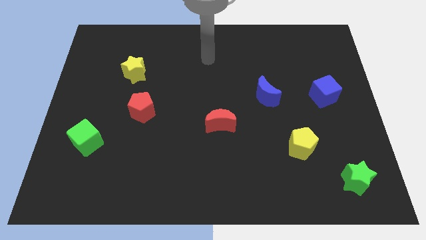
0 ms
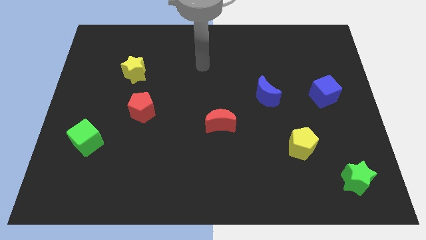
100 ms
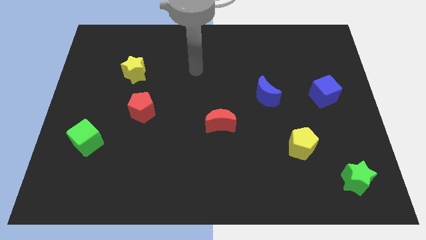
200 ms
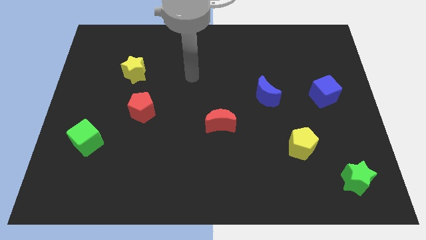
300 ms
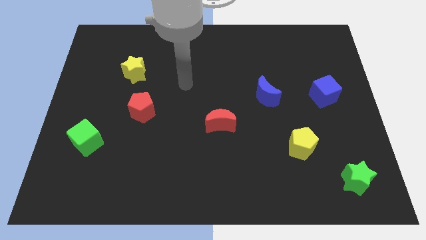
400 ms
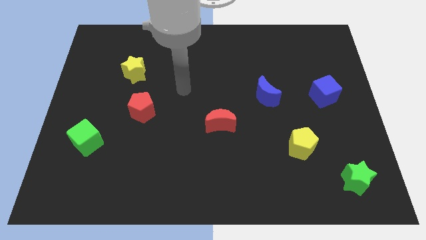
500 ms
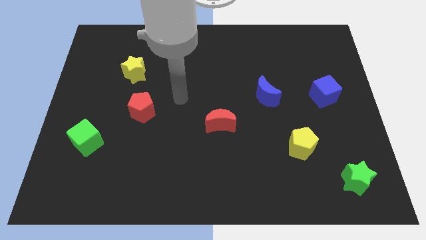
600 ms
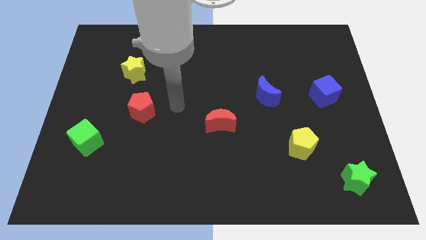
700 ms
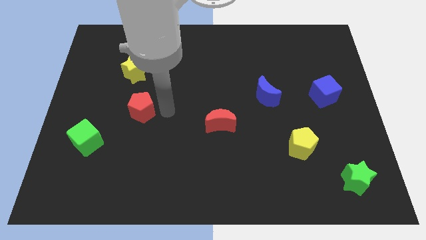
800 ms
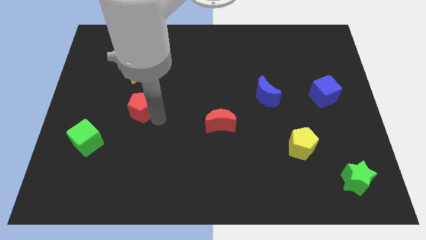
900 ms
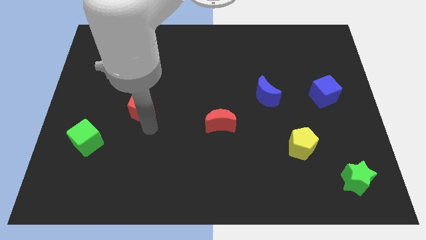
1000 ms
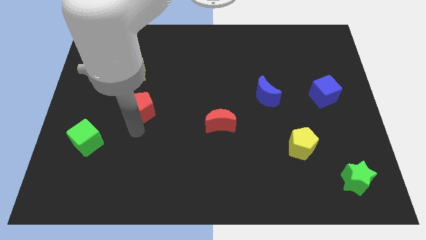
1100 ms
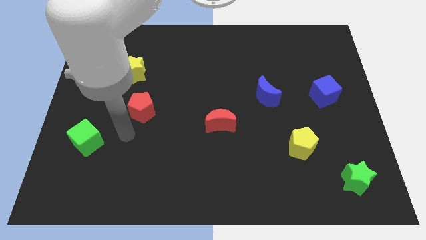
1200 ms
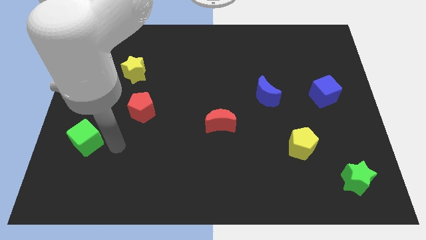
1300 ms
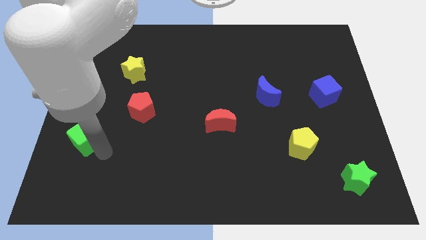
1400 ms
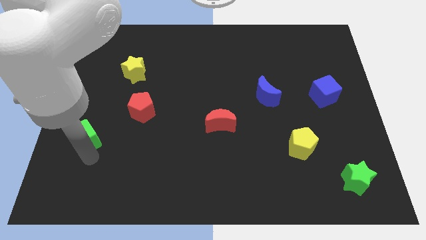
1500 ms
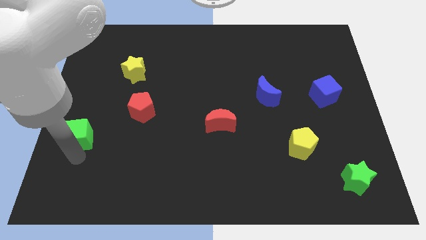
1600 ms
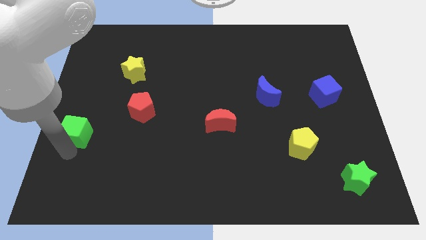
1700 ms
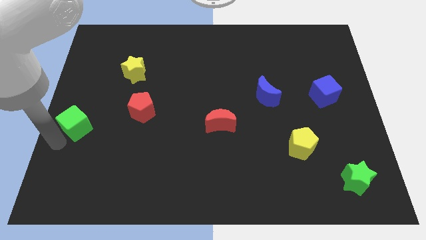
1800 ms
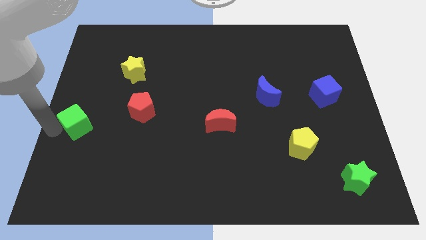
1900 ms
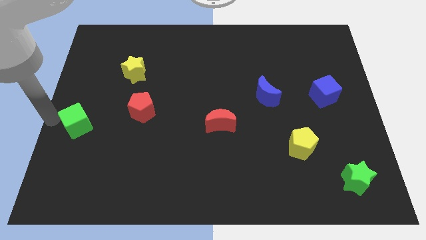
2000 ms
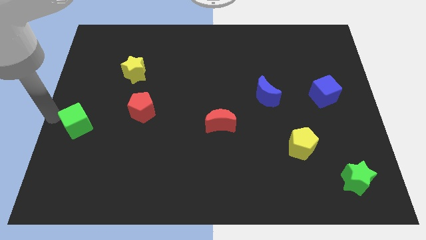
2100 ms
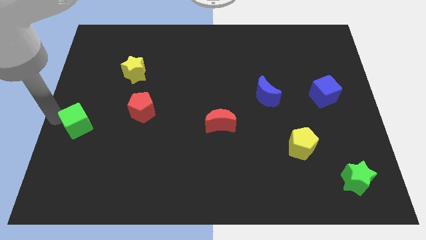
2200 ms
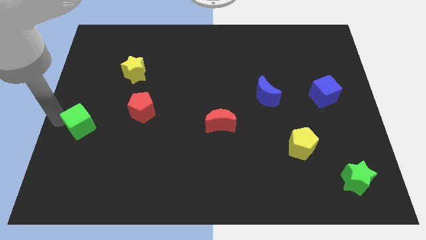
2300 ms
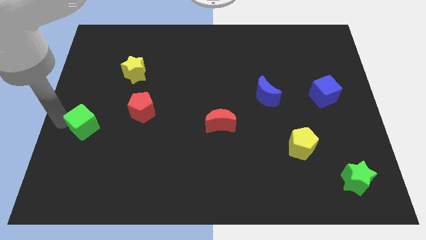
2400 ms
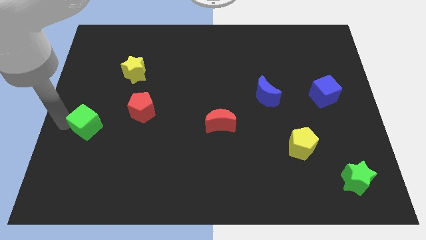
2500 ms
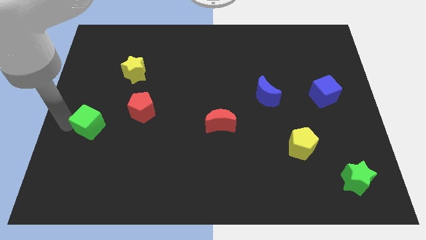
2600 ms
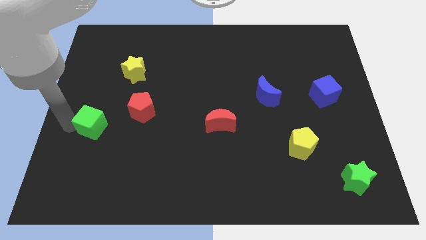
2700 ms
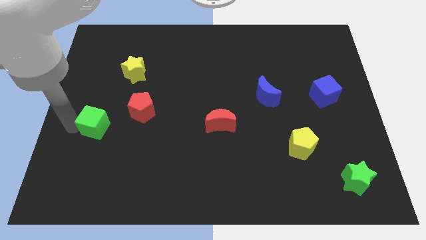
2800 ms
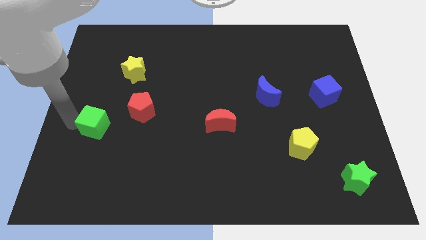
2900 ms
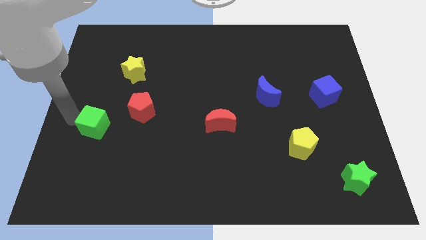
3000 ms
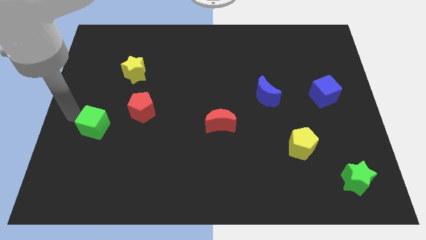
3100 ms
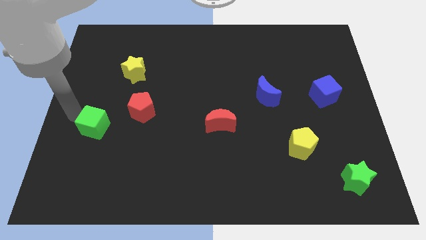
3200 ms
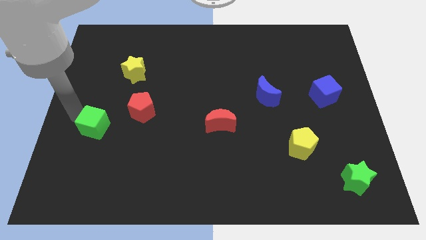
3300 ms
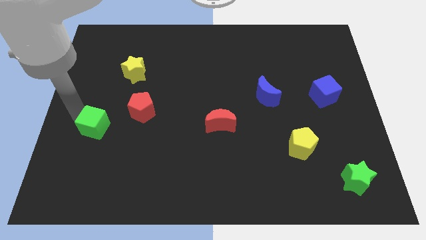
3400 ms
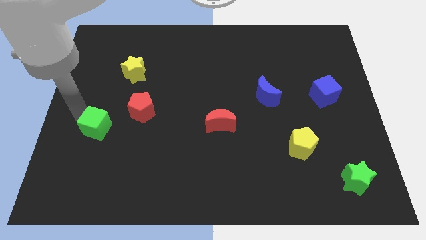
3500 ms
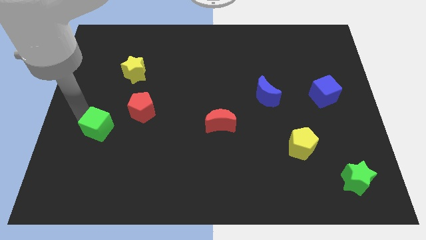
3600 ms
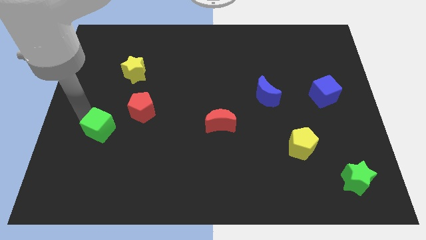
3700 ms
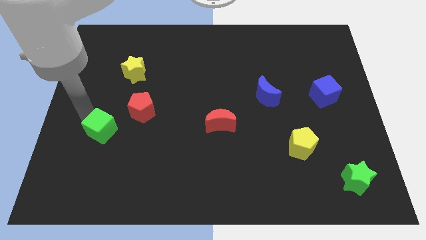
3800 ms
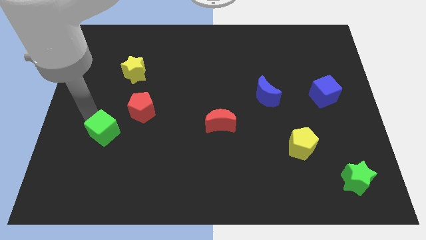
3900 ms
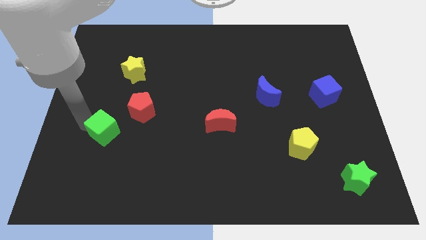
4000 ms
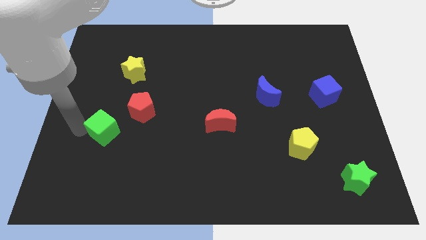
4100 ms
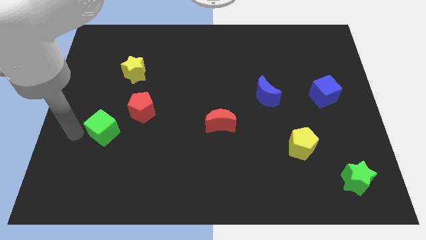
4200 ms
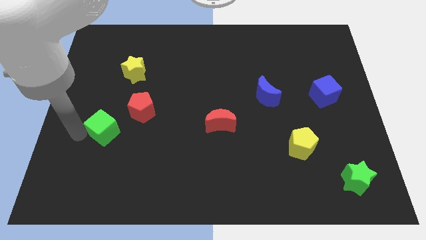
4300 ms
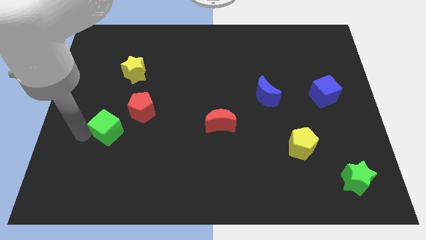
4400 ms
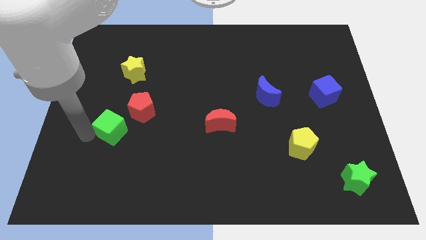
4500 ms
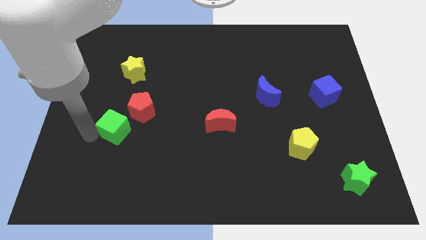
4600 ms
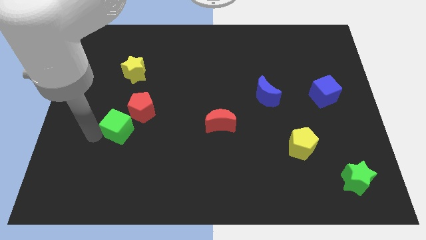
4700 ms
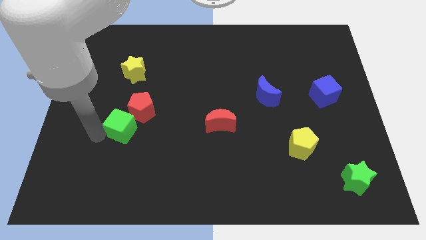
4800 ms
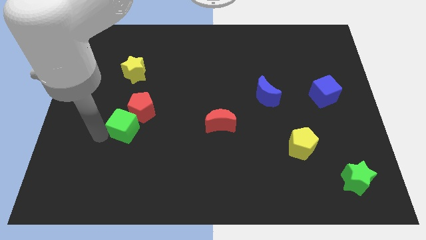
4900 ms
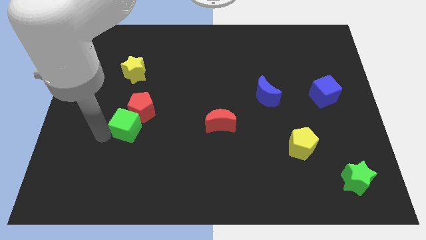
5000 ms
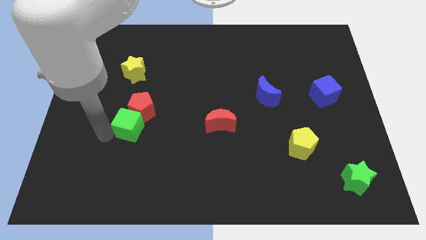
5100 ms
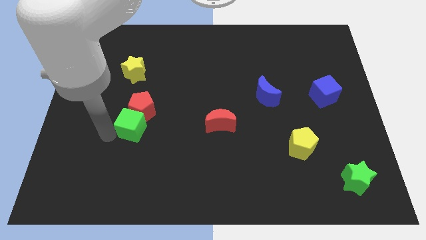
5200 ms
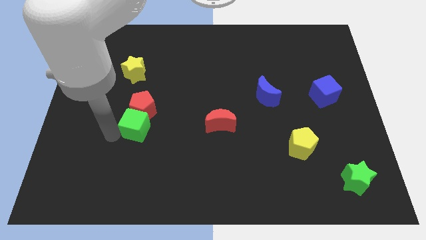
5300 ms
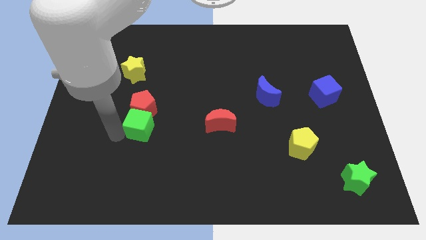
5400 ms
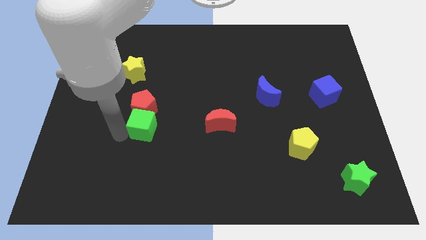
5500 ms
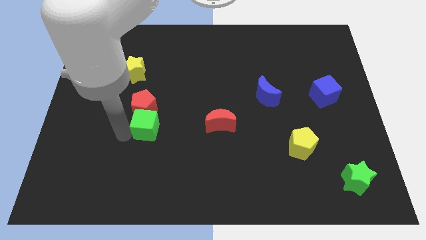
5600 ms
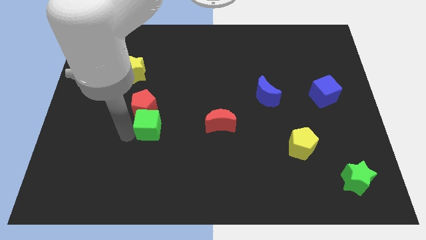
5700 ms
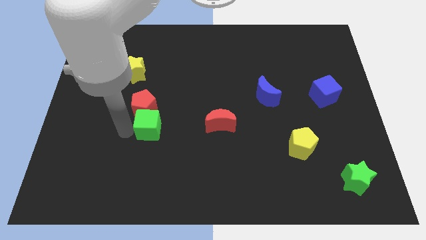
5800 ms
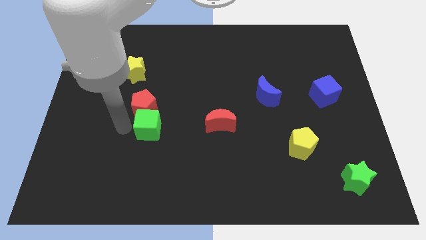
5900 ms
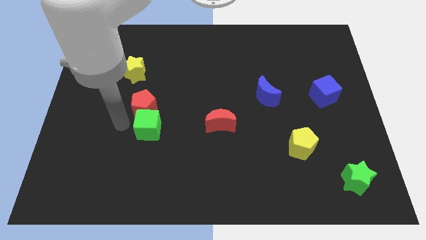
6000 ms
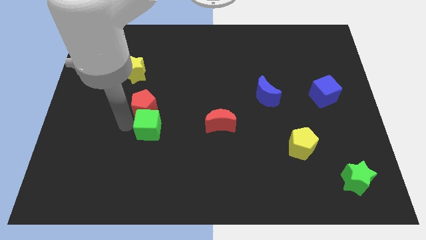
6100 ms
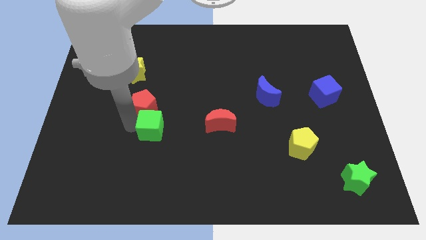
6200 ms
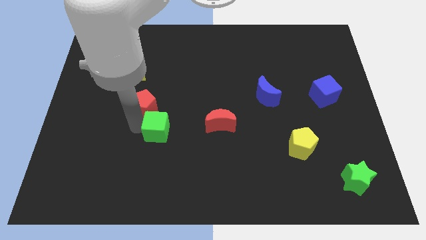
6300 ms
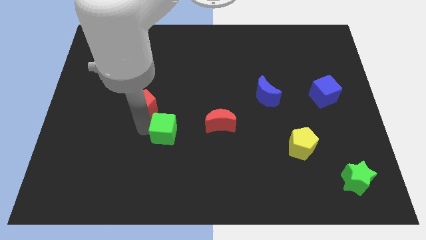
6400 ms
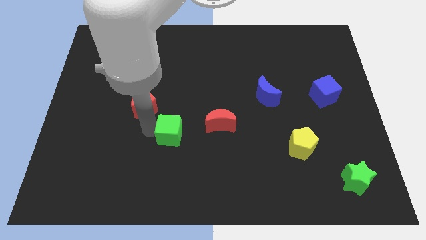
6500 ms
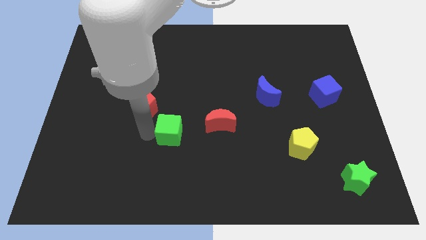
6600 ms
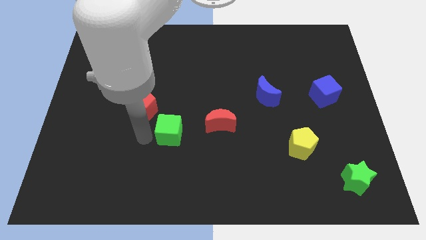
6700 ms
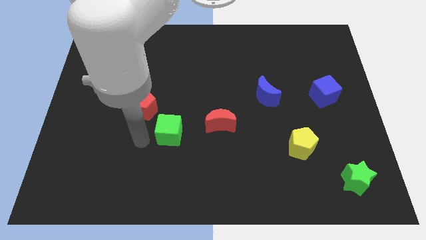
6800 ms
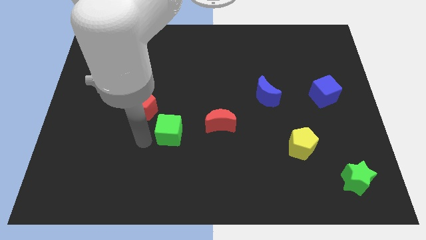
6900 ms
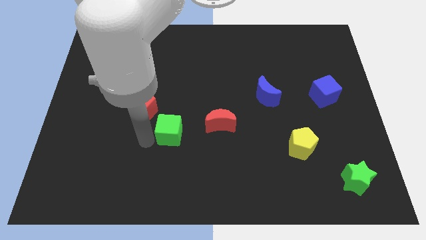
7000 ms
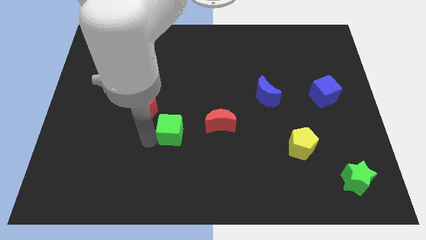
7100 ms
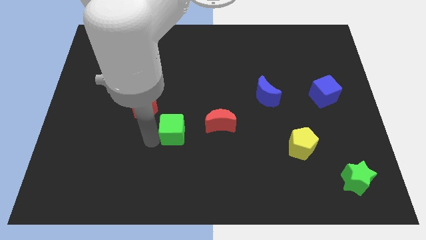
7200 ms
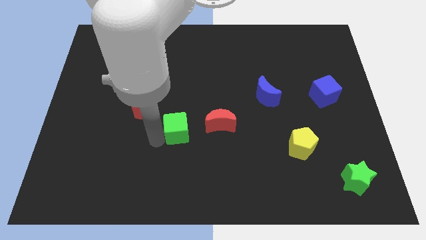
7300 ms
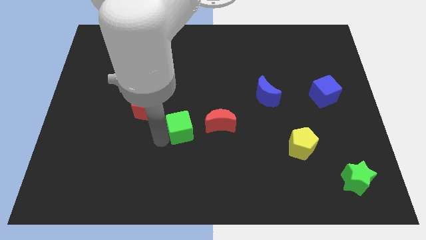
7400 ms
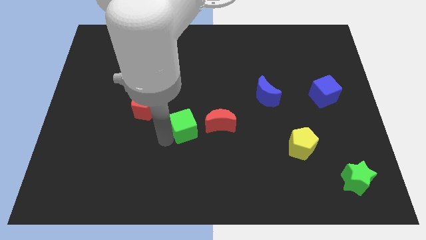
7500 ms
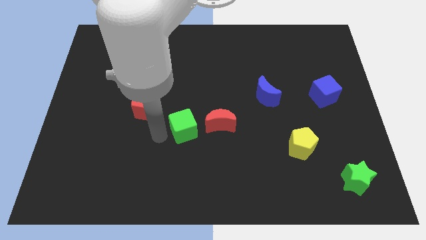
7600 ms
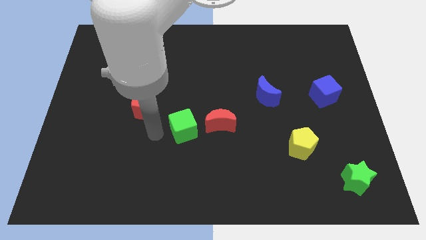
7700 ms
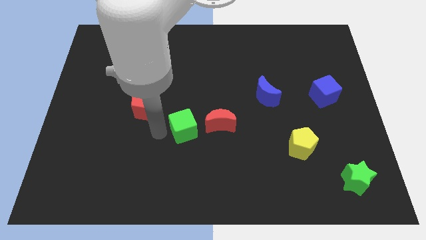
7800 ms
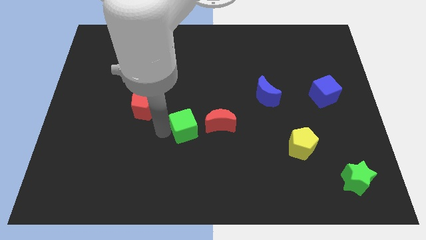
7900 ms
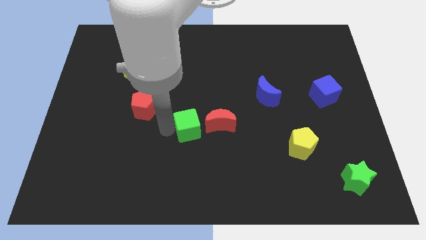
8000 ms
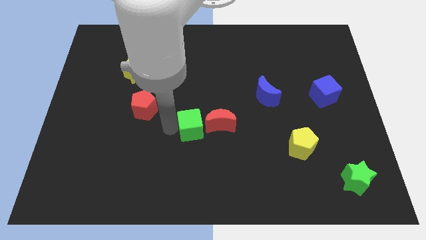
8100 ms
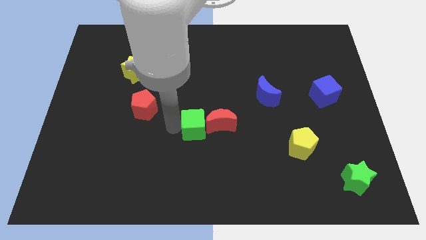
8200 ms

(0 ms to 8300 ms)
push the green cube to the red moon
